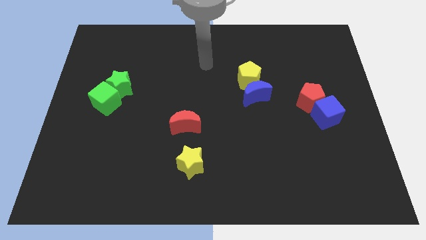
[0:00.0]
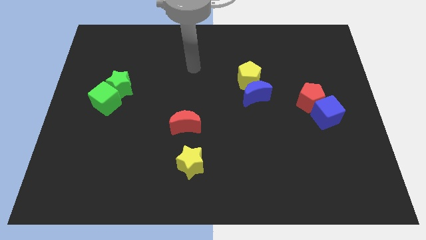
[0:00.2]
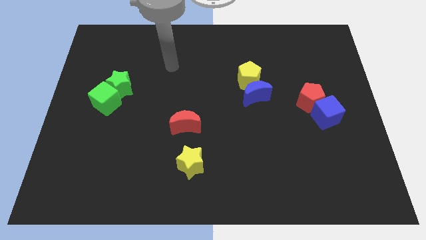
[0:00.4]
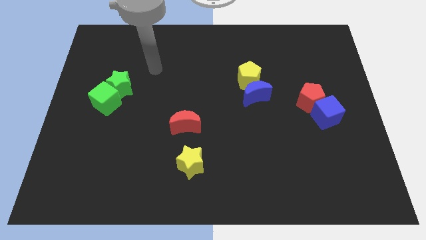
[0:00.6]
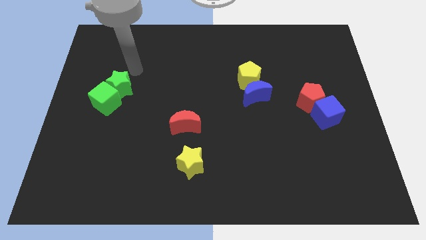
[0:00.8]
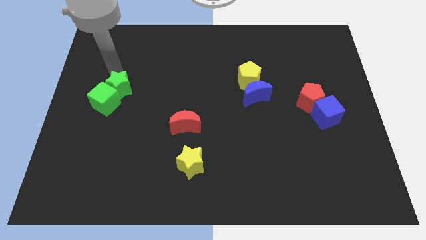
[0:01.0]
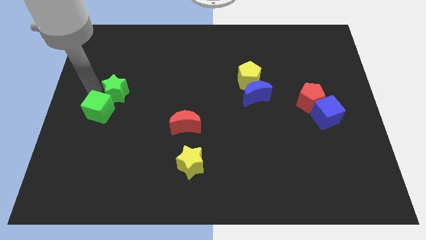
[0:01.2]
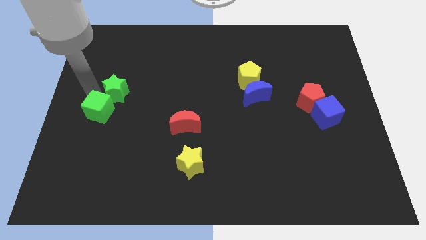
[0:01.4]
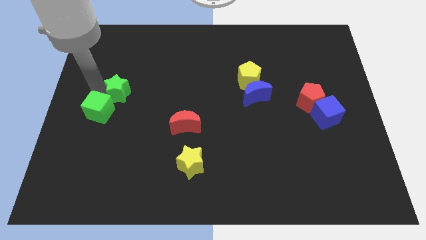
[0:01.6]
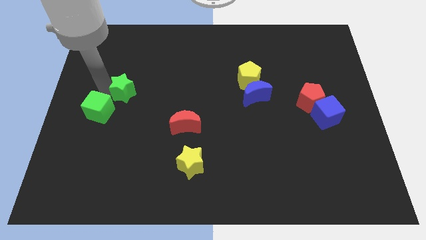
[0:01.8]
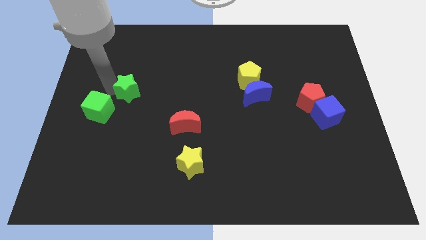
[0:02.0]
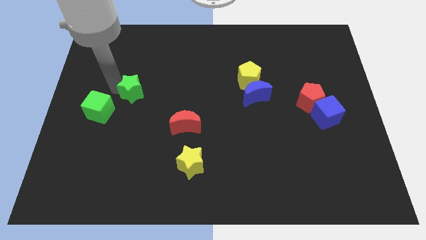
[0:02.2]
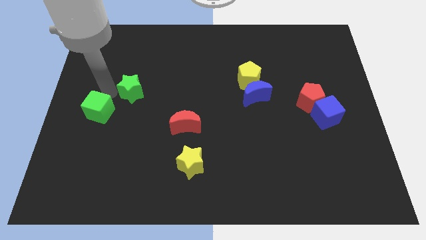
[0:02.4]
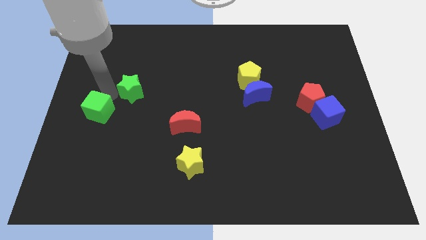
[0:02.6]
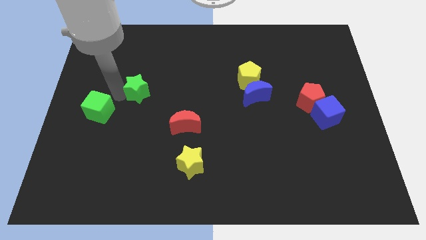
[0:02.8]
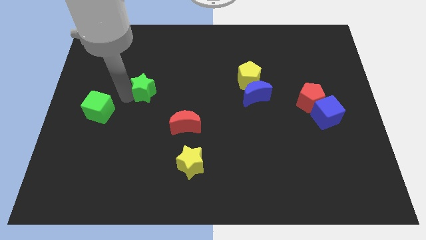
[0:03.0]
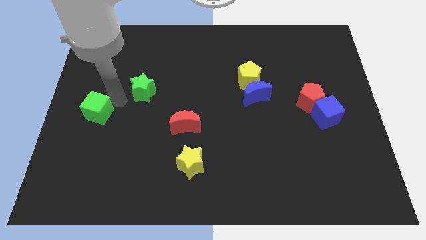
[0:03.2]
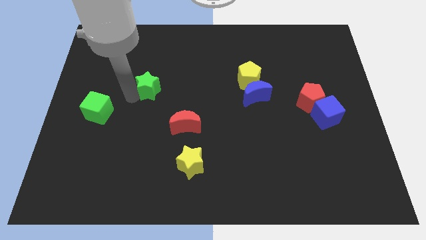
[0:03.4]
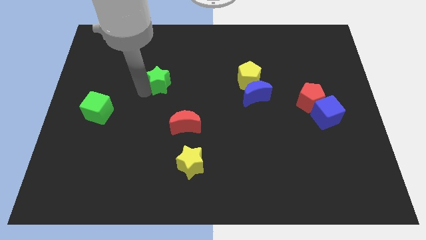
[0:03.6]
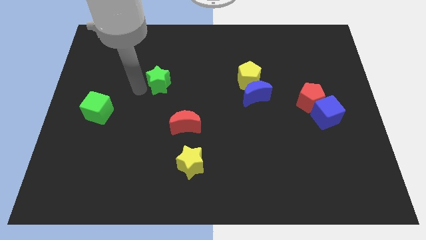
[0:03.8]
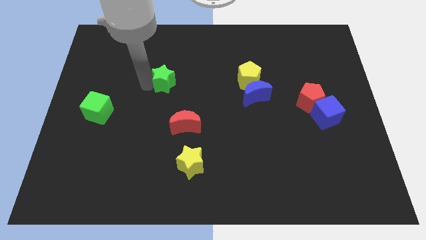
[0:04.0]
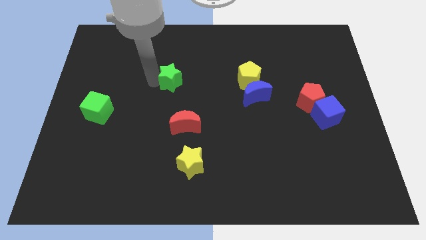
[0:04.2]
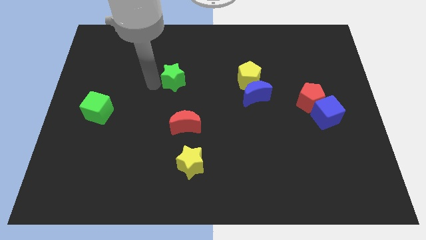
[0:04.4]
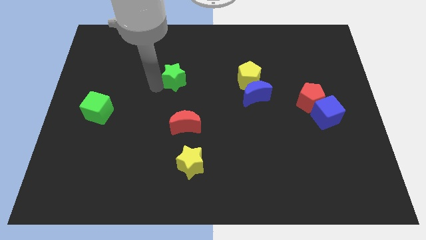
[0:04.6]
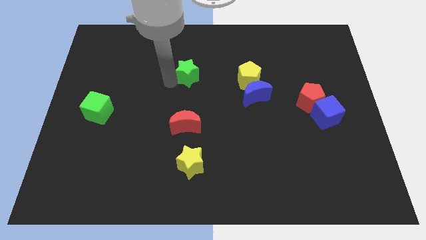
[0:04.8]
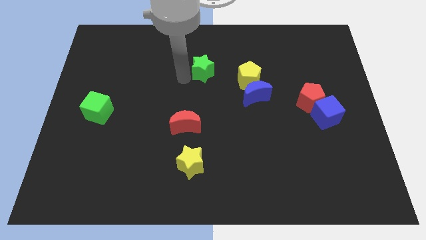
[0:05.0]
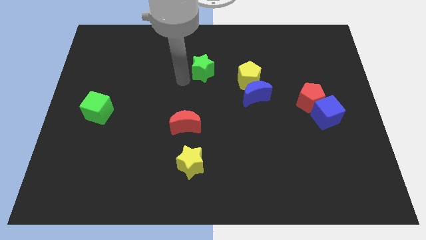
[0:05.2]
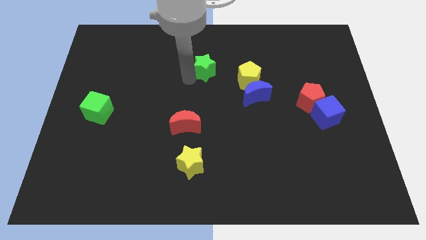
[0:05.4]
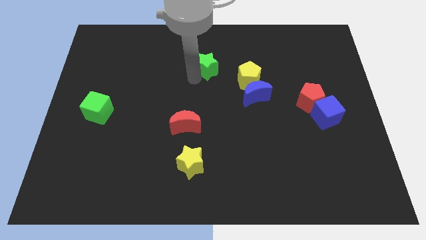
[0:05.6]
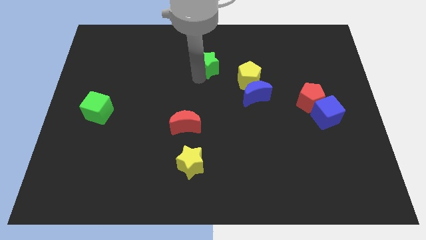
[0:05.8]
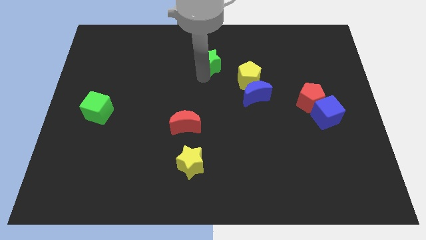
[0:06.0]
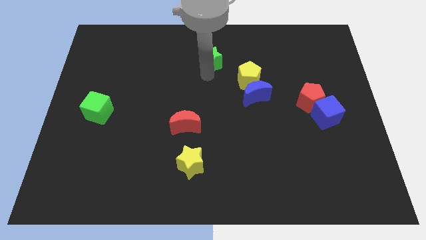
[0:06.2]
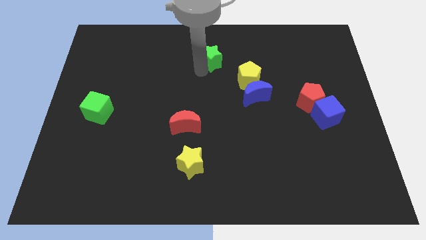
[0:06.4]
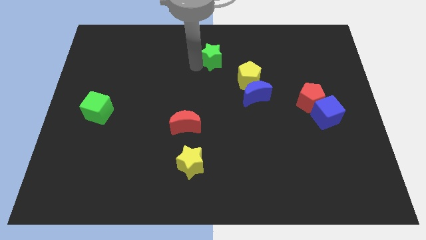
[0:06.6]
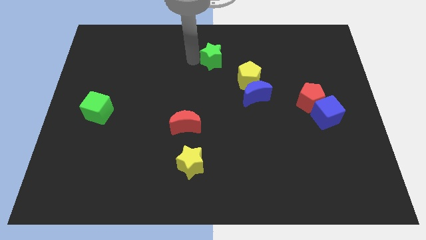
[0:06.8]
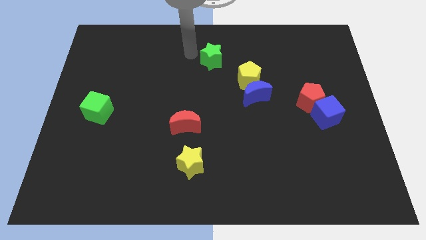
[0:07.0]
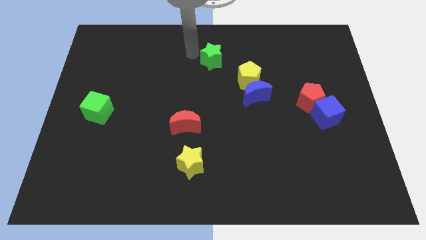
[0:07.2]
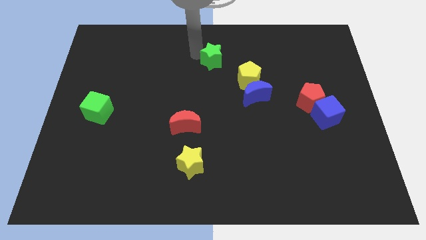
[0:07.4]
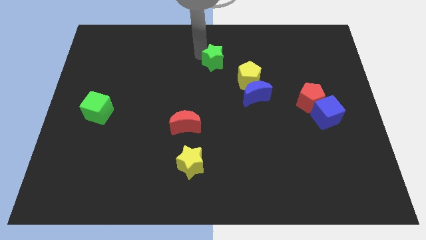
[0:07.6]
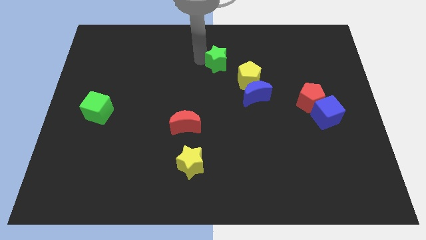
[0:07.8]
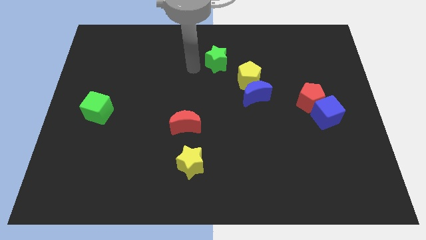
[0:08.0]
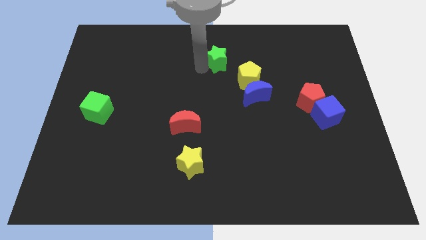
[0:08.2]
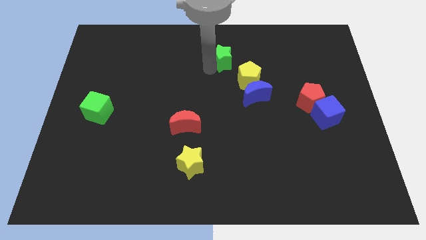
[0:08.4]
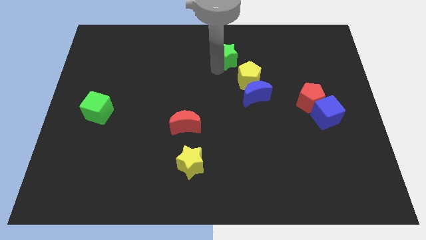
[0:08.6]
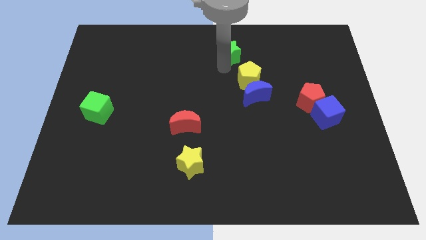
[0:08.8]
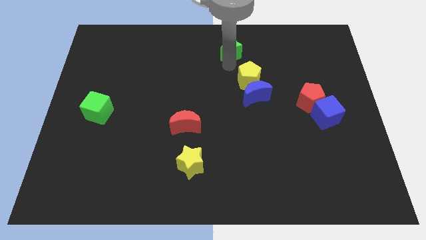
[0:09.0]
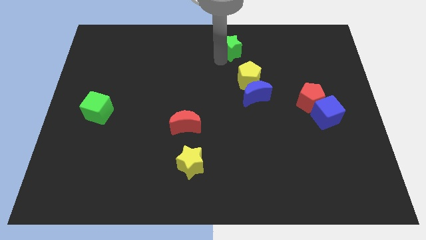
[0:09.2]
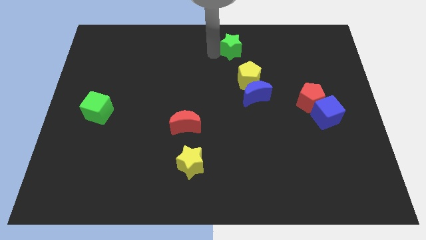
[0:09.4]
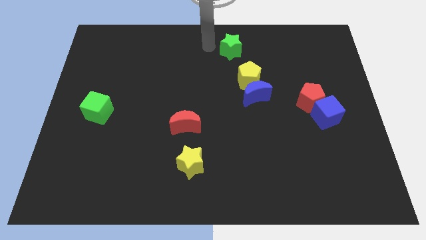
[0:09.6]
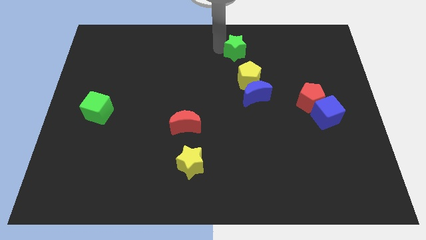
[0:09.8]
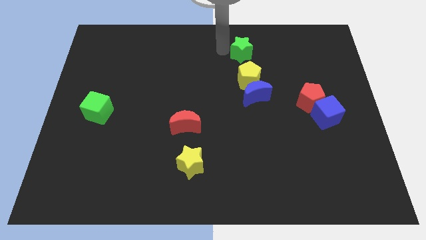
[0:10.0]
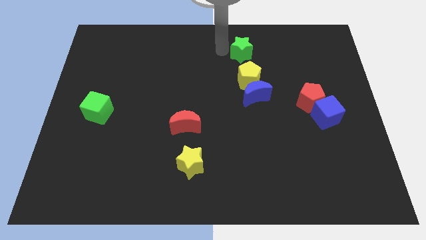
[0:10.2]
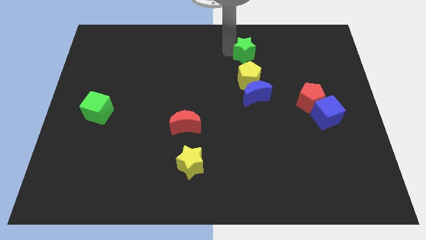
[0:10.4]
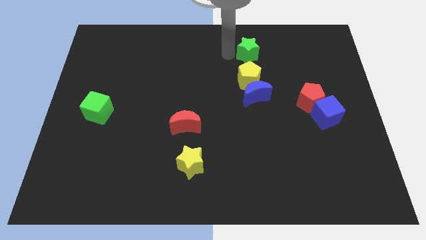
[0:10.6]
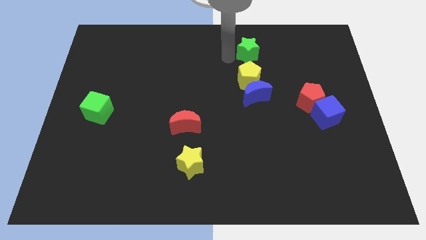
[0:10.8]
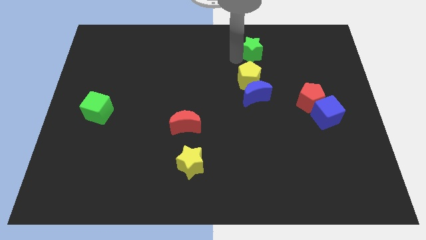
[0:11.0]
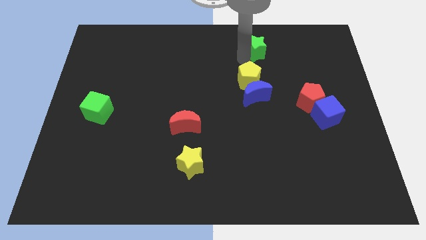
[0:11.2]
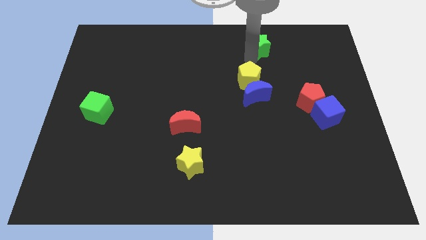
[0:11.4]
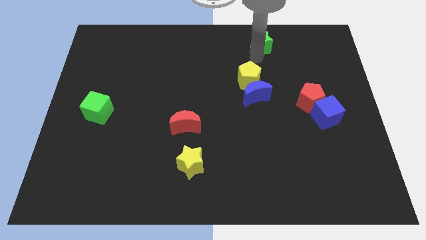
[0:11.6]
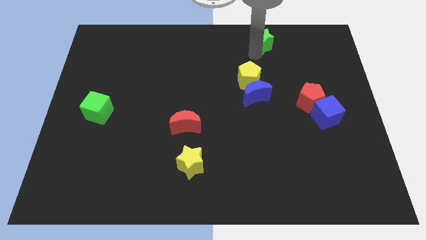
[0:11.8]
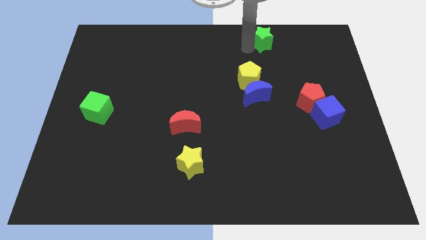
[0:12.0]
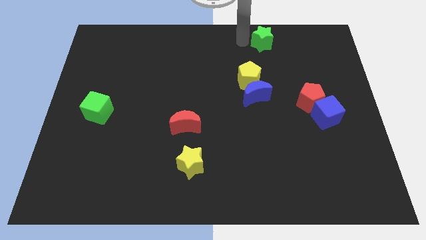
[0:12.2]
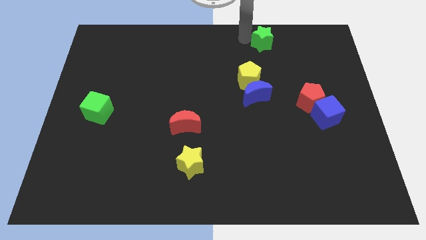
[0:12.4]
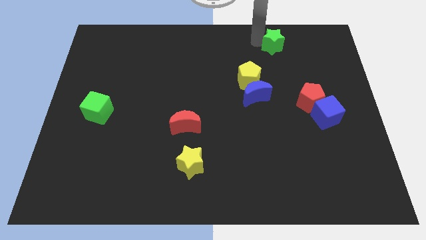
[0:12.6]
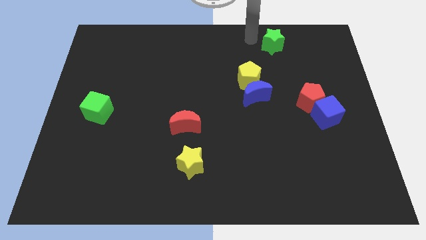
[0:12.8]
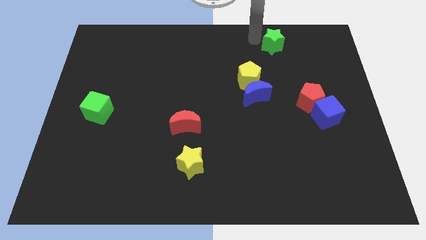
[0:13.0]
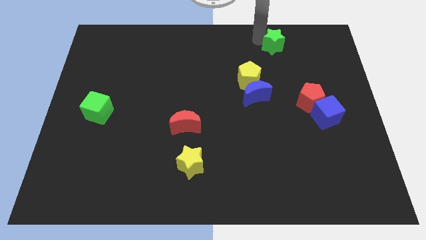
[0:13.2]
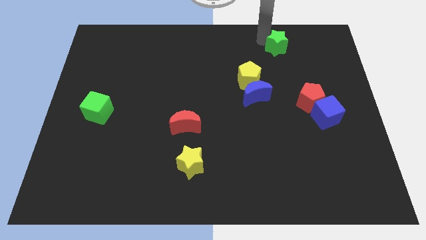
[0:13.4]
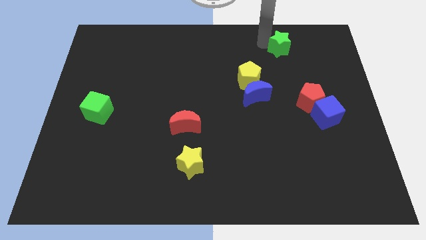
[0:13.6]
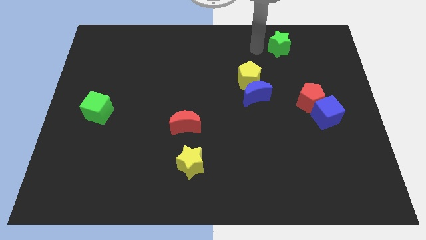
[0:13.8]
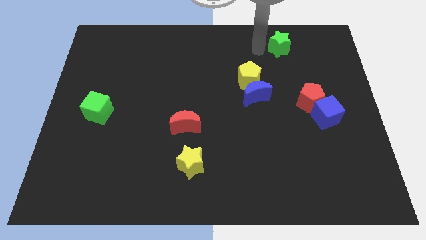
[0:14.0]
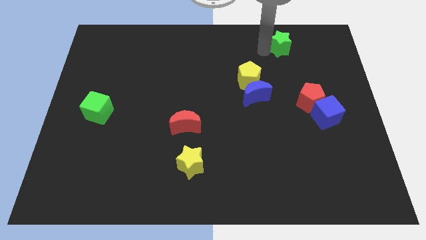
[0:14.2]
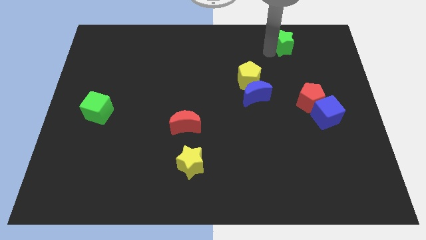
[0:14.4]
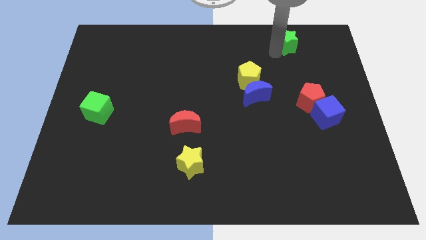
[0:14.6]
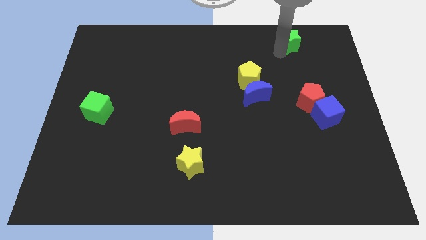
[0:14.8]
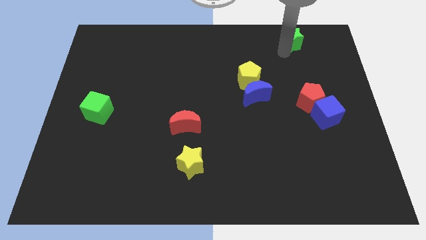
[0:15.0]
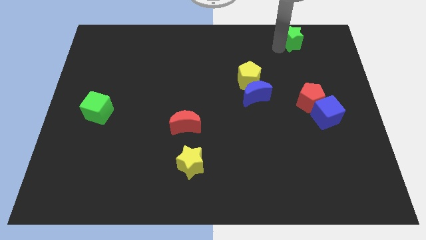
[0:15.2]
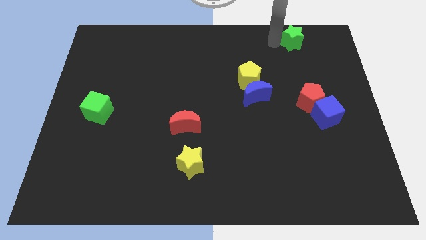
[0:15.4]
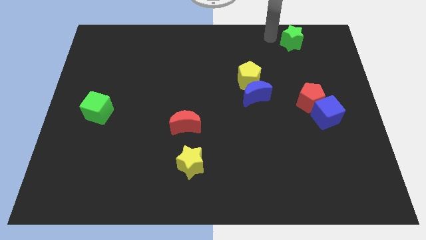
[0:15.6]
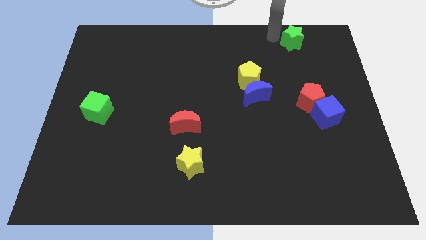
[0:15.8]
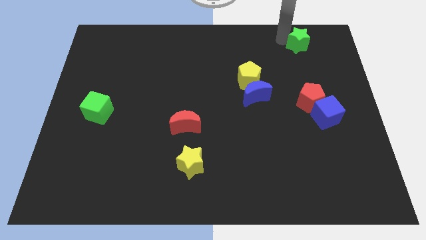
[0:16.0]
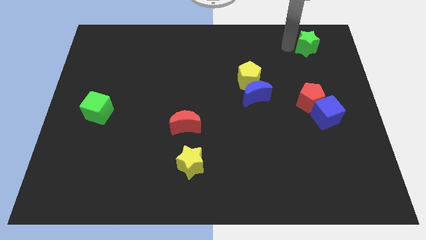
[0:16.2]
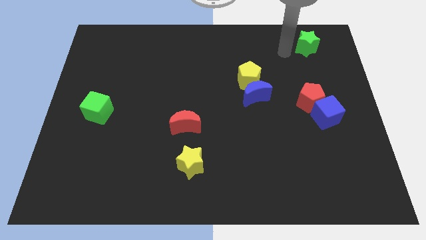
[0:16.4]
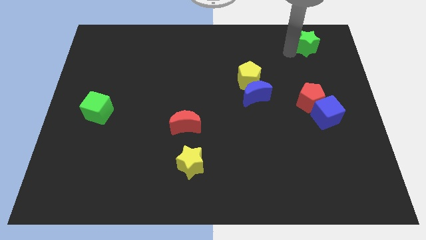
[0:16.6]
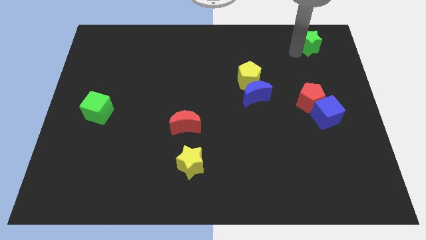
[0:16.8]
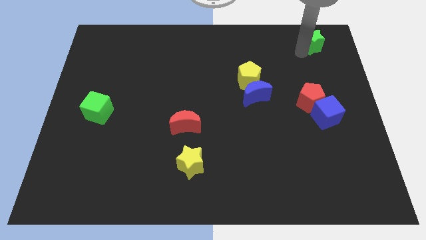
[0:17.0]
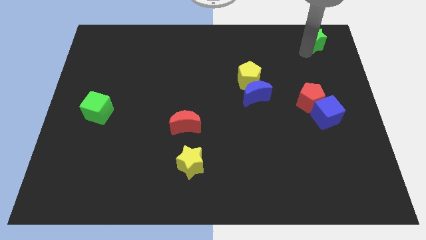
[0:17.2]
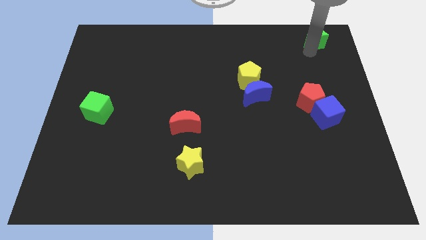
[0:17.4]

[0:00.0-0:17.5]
put the green star to the top right corner
